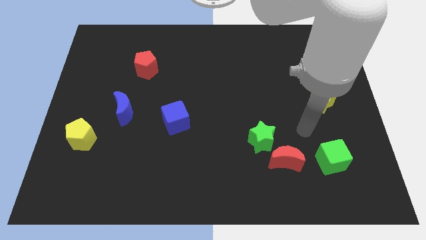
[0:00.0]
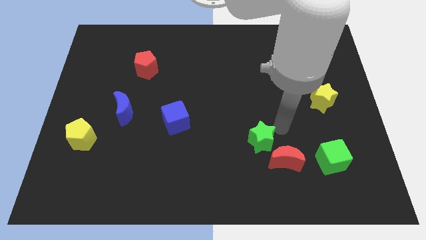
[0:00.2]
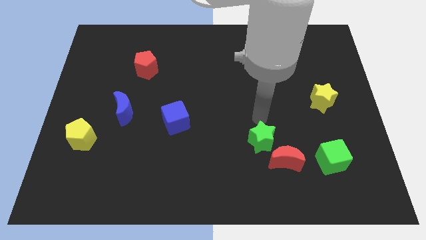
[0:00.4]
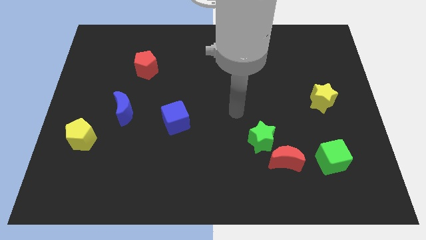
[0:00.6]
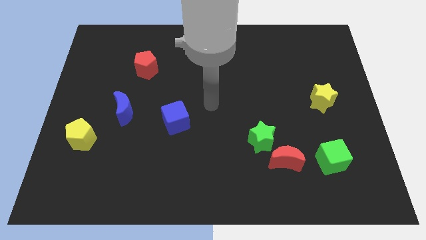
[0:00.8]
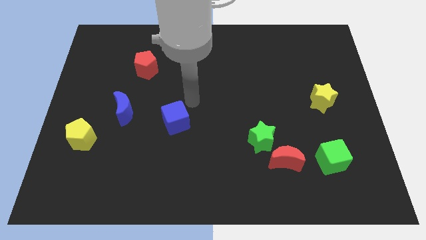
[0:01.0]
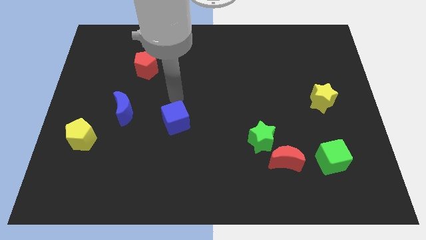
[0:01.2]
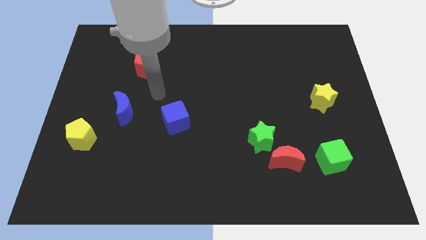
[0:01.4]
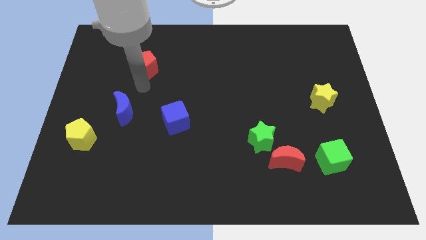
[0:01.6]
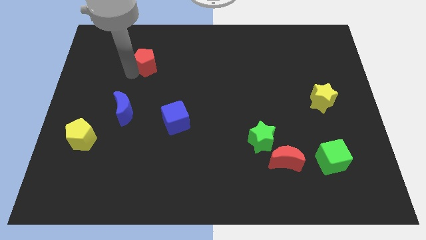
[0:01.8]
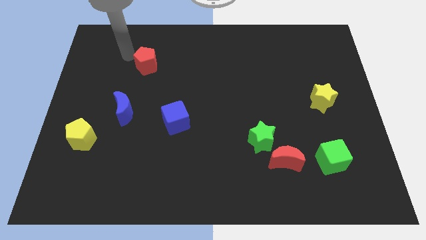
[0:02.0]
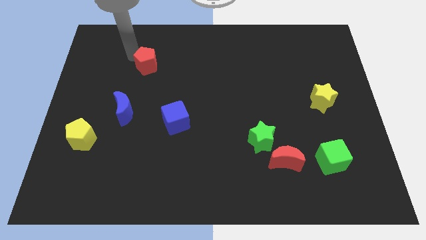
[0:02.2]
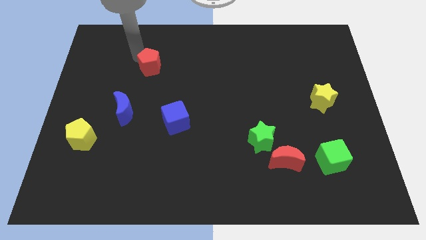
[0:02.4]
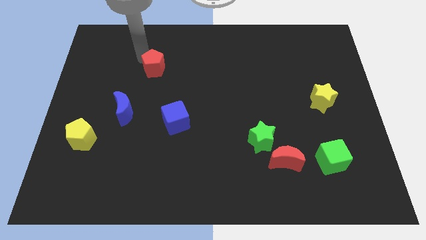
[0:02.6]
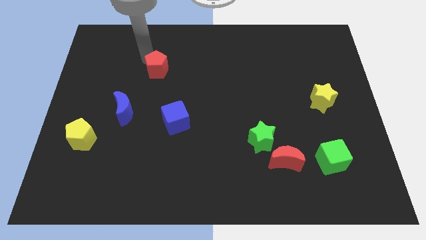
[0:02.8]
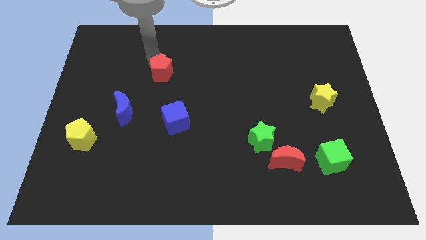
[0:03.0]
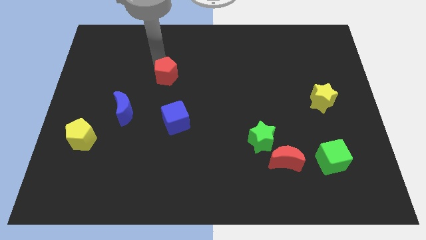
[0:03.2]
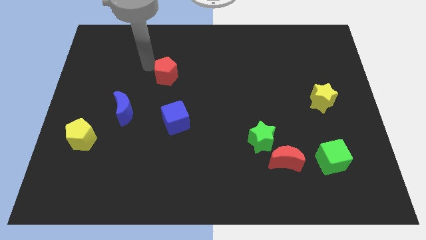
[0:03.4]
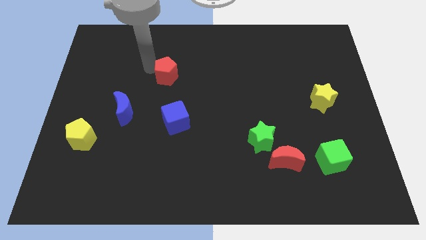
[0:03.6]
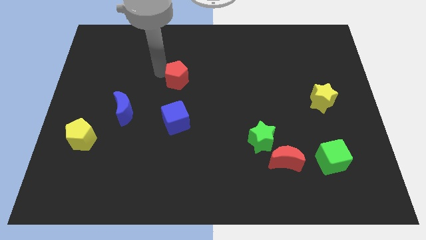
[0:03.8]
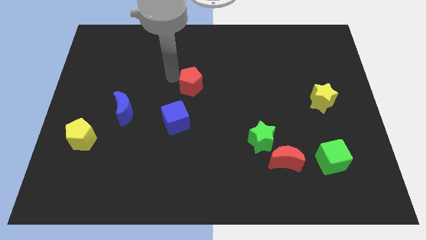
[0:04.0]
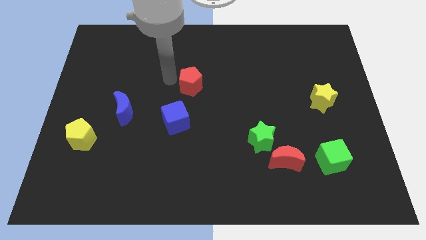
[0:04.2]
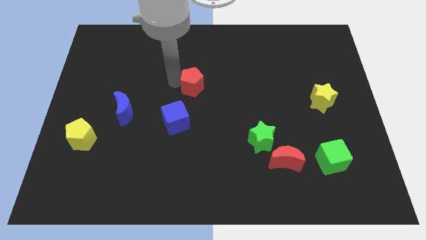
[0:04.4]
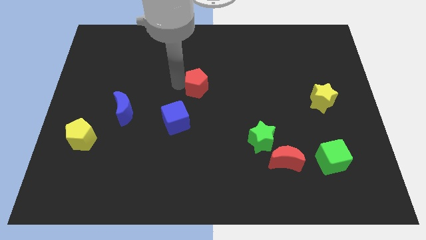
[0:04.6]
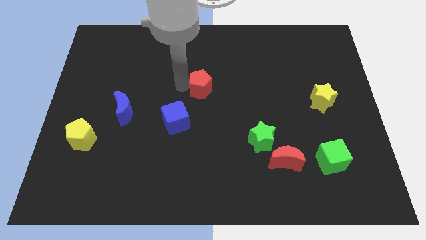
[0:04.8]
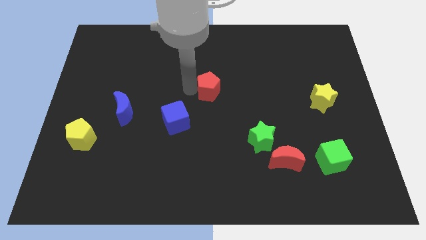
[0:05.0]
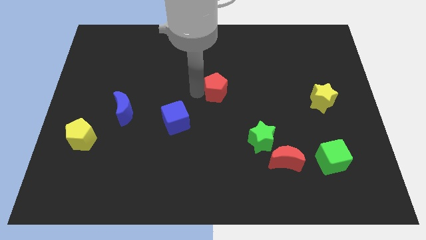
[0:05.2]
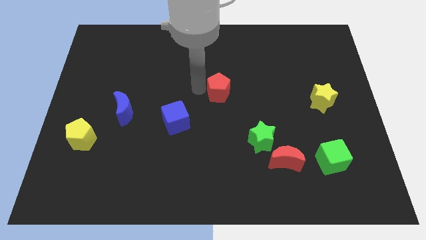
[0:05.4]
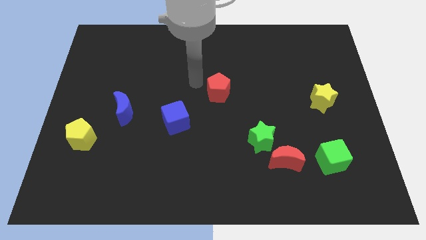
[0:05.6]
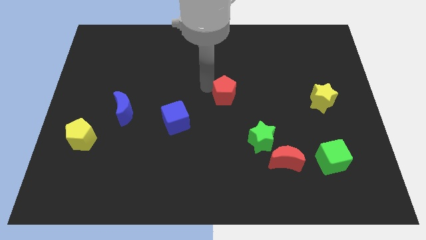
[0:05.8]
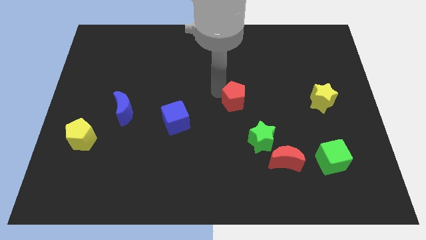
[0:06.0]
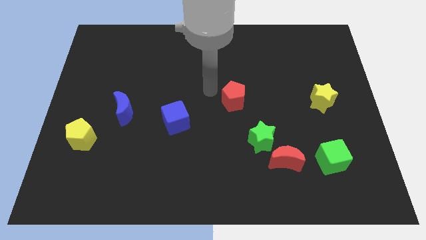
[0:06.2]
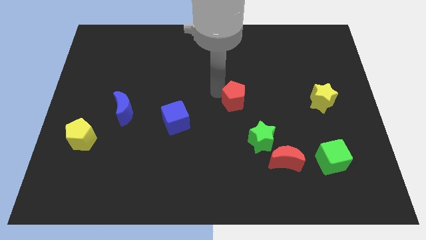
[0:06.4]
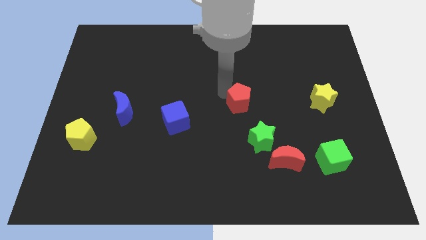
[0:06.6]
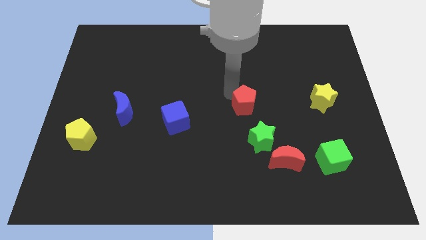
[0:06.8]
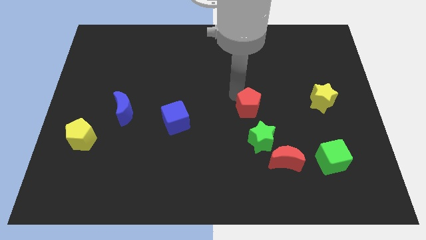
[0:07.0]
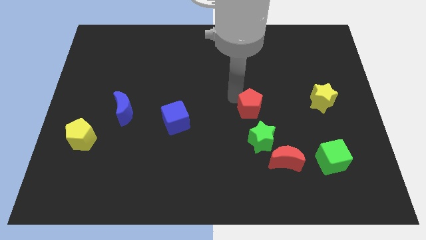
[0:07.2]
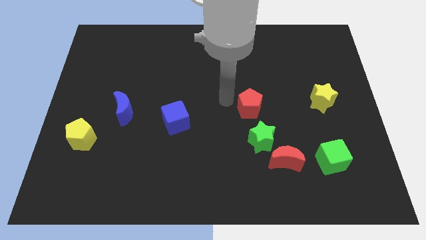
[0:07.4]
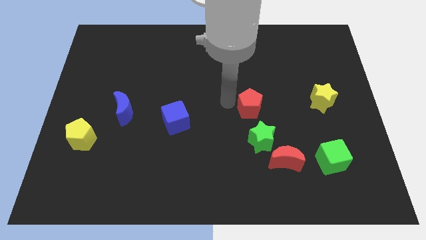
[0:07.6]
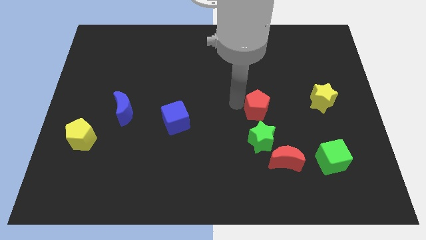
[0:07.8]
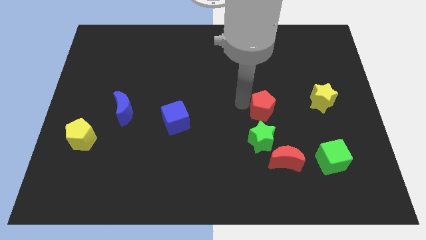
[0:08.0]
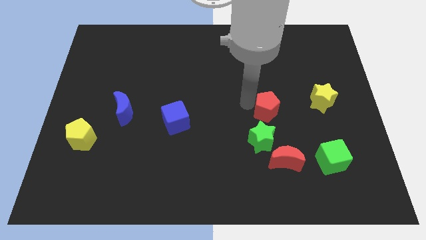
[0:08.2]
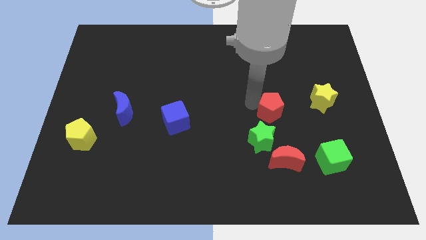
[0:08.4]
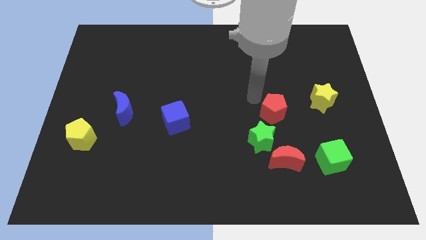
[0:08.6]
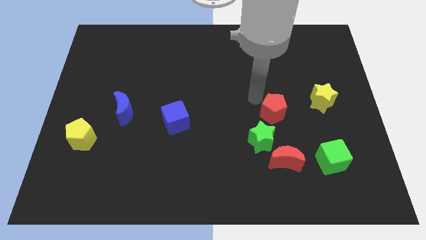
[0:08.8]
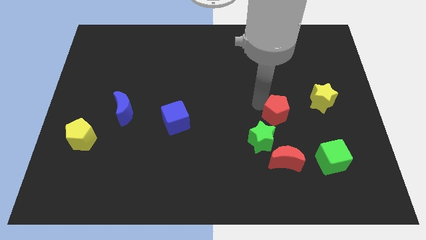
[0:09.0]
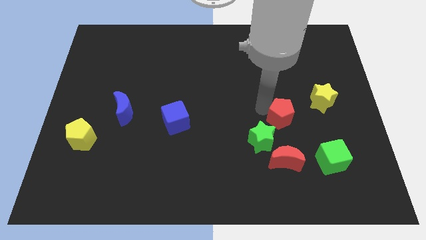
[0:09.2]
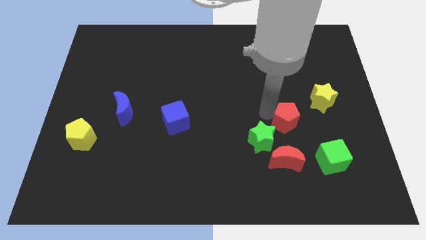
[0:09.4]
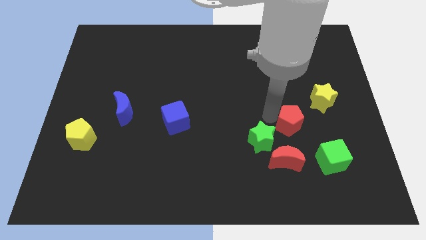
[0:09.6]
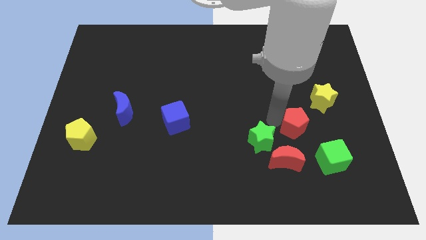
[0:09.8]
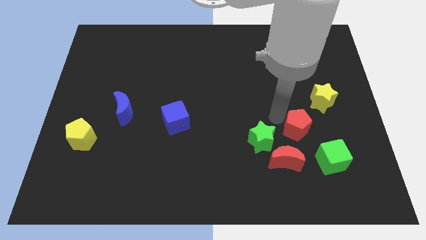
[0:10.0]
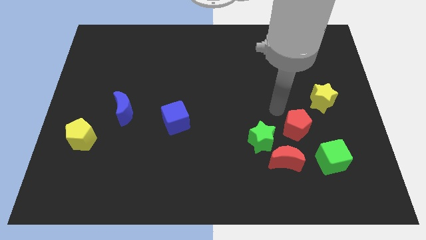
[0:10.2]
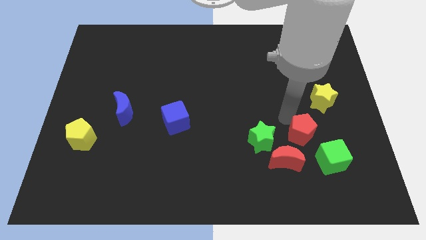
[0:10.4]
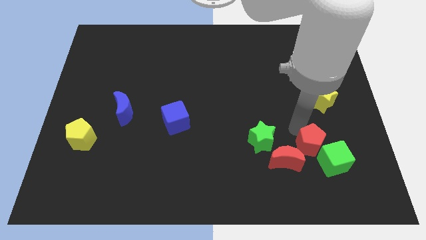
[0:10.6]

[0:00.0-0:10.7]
push the red pentagon next to the green cube

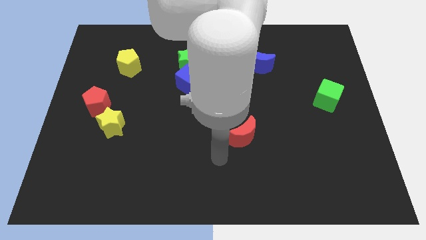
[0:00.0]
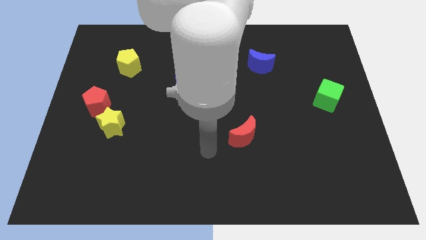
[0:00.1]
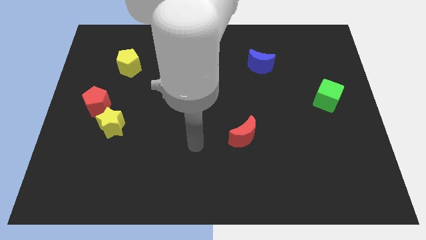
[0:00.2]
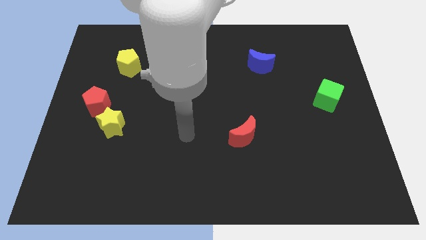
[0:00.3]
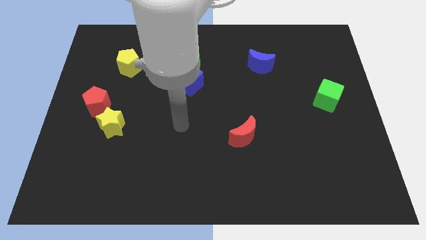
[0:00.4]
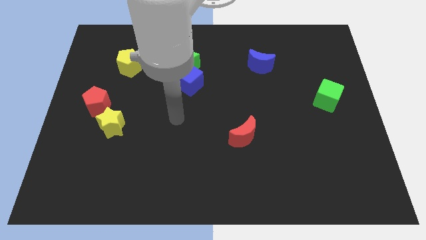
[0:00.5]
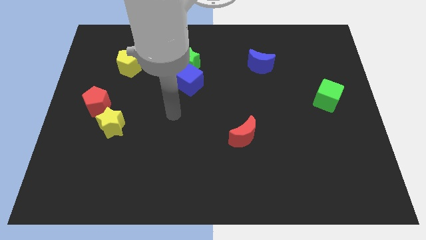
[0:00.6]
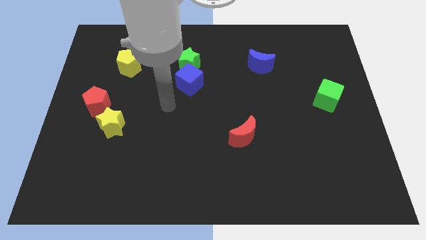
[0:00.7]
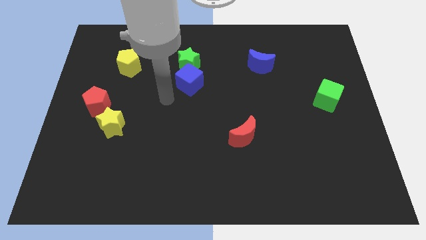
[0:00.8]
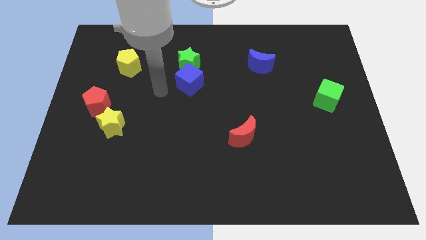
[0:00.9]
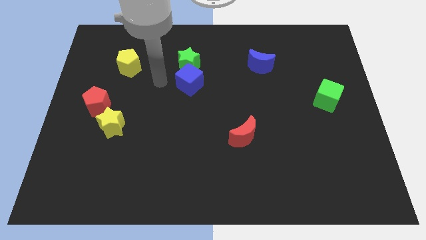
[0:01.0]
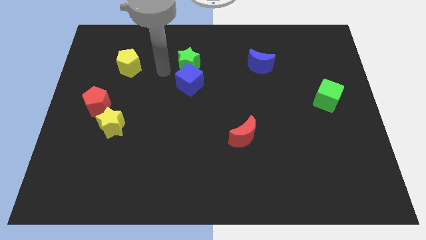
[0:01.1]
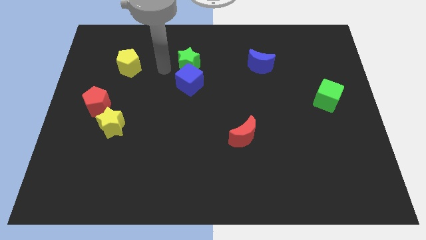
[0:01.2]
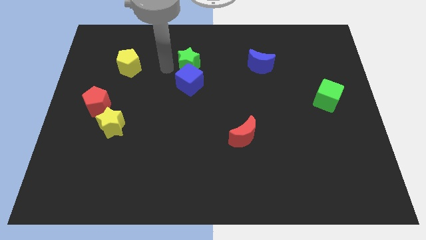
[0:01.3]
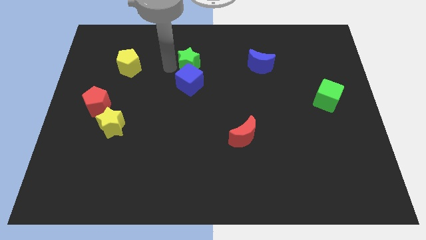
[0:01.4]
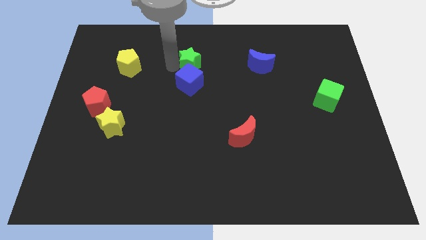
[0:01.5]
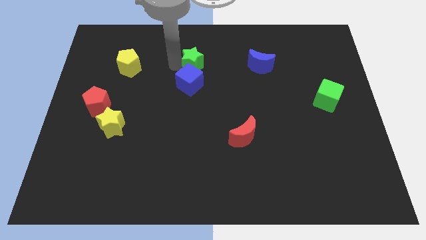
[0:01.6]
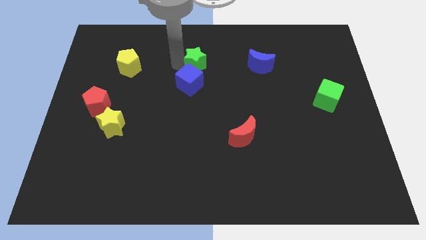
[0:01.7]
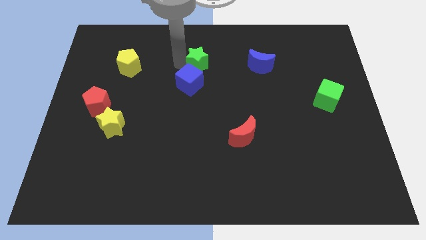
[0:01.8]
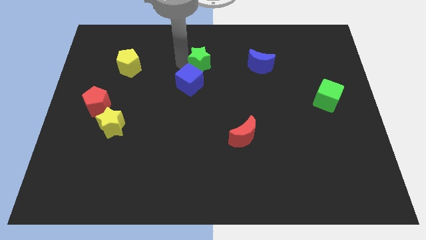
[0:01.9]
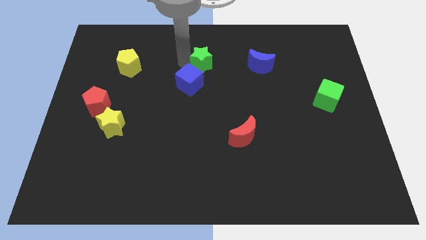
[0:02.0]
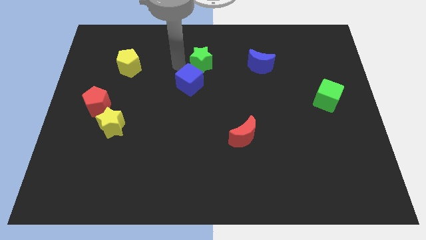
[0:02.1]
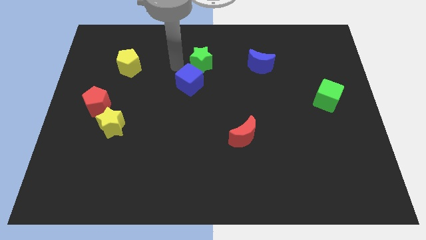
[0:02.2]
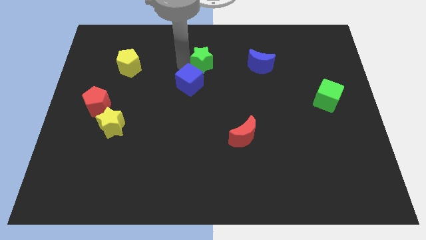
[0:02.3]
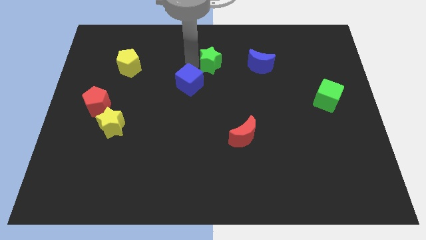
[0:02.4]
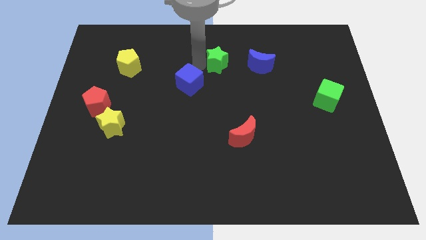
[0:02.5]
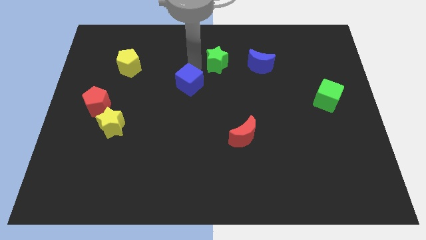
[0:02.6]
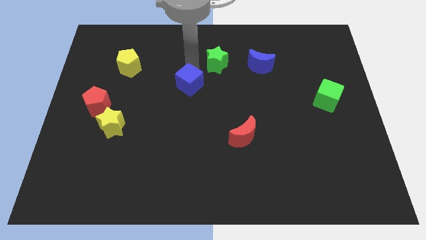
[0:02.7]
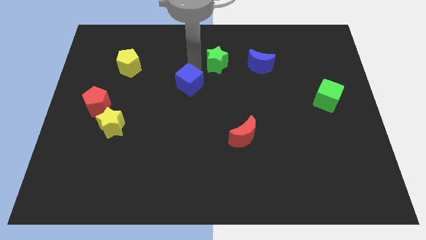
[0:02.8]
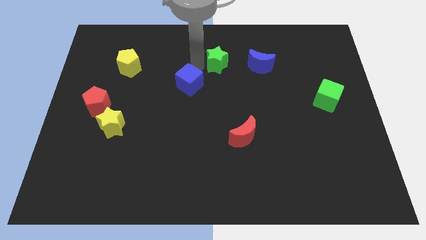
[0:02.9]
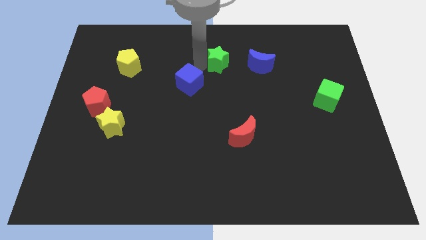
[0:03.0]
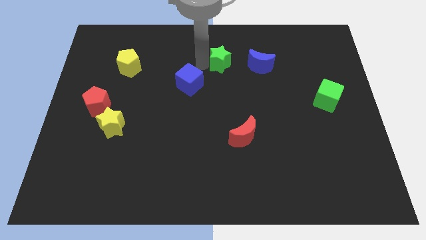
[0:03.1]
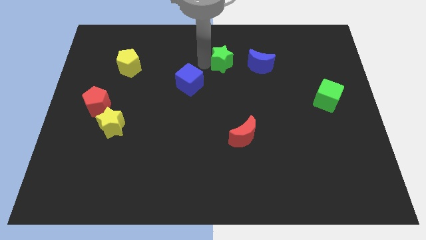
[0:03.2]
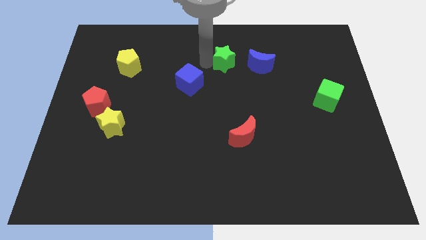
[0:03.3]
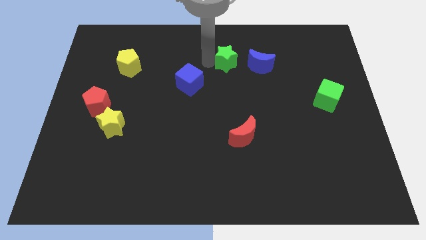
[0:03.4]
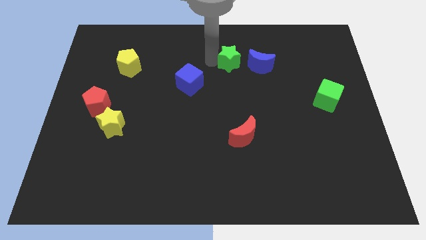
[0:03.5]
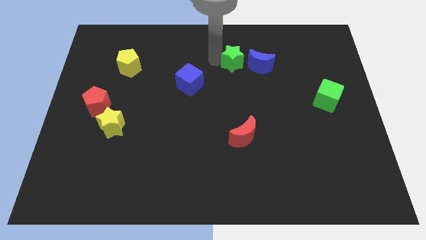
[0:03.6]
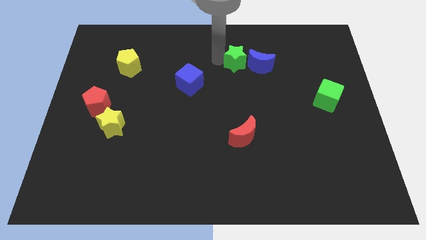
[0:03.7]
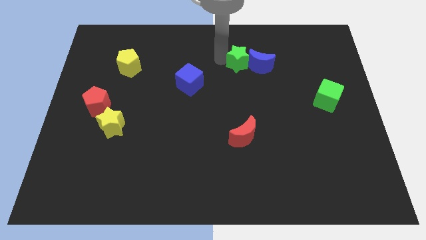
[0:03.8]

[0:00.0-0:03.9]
move the green star close to the blue moon
